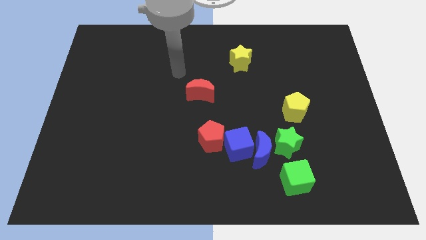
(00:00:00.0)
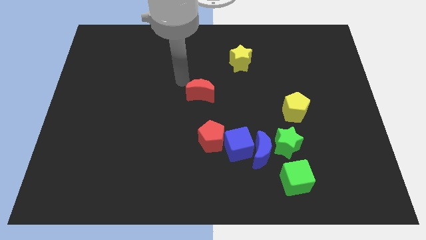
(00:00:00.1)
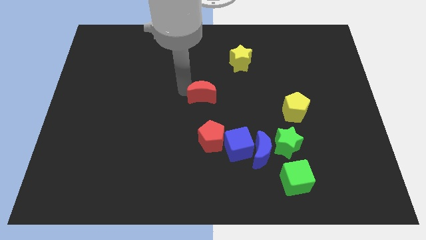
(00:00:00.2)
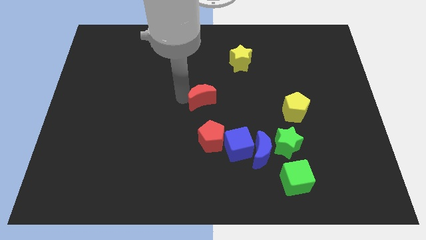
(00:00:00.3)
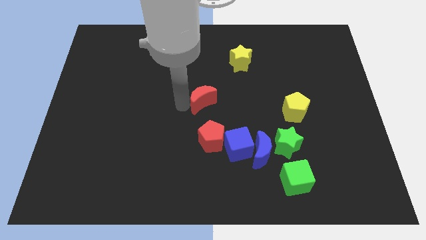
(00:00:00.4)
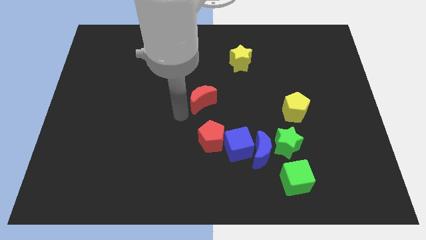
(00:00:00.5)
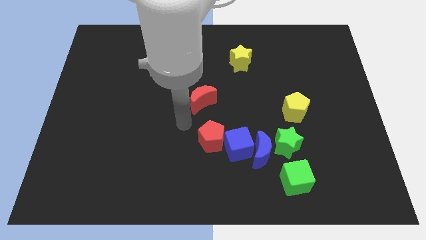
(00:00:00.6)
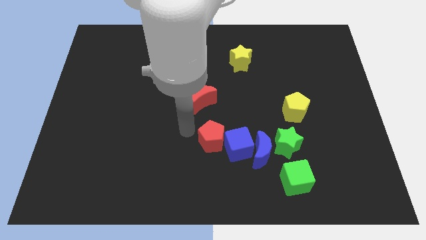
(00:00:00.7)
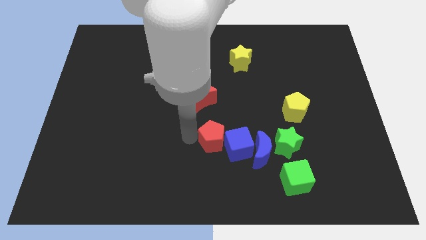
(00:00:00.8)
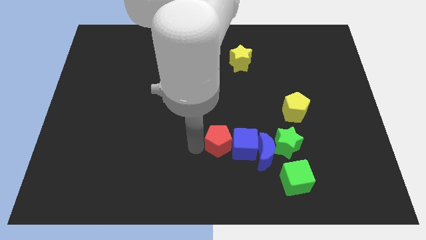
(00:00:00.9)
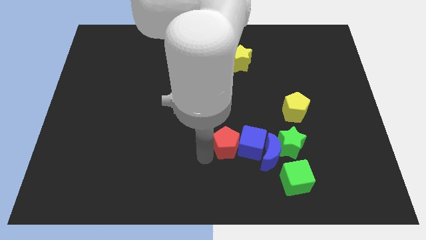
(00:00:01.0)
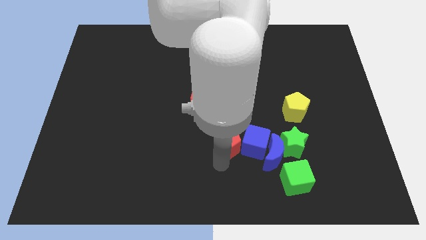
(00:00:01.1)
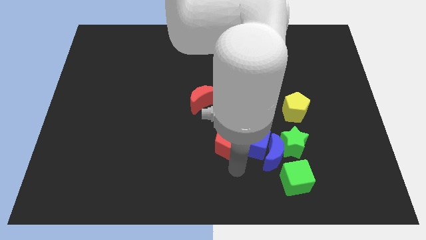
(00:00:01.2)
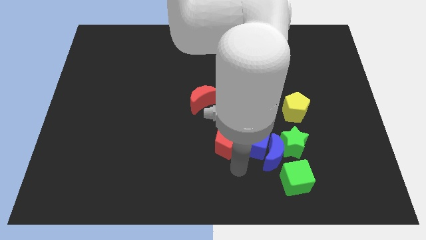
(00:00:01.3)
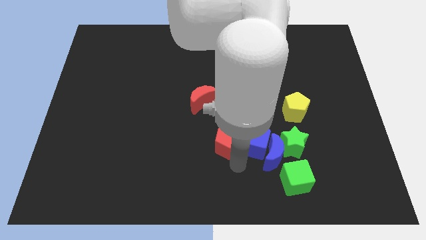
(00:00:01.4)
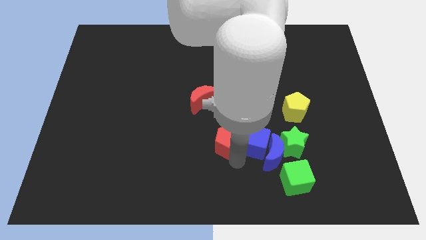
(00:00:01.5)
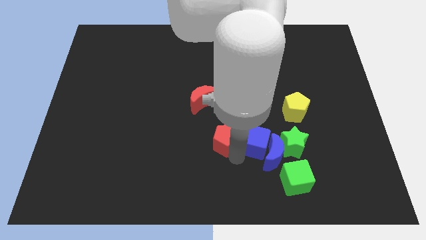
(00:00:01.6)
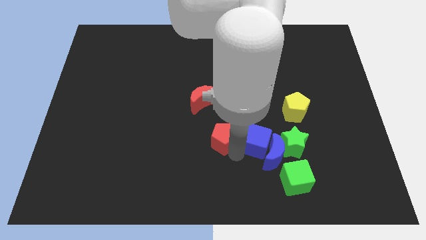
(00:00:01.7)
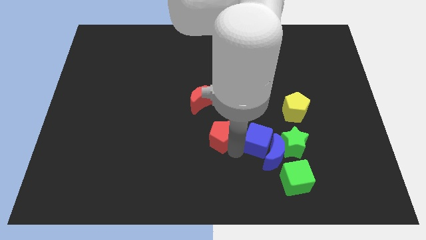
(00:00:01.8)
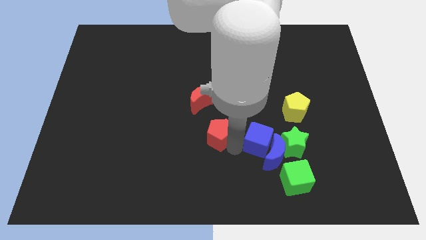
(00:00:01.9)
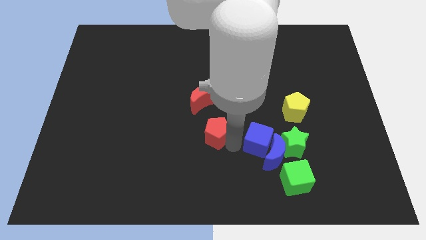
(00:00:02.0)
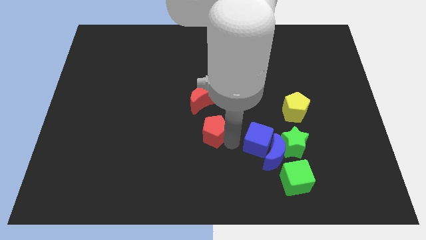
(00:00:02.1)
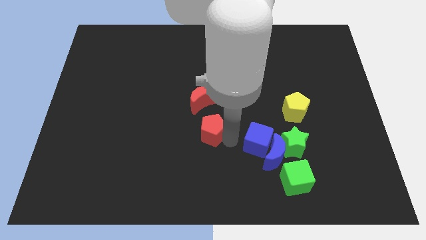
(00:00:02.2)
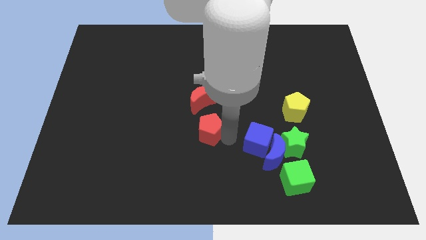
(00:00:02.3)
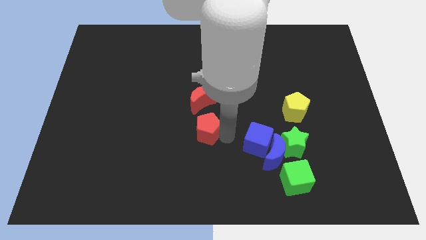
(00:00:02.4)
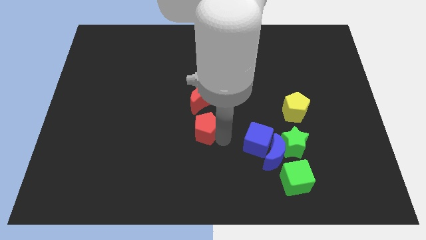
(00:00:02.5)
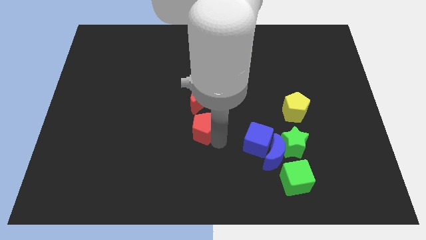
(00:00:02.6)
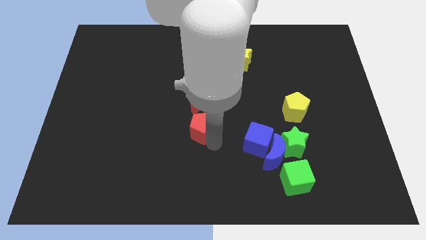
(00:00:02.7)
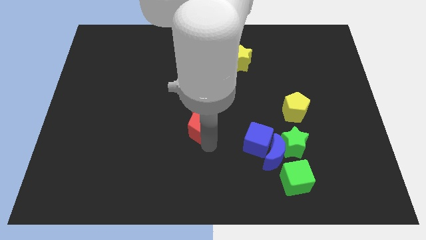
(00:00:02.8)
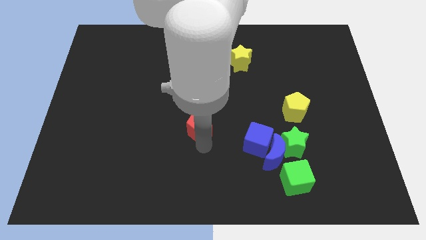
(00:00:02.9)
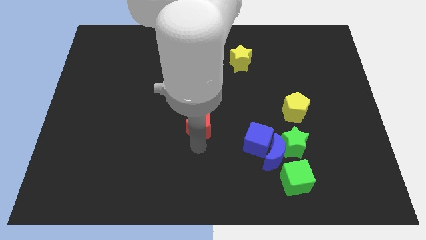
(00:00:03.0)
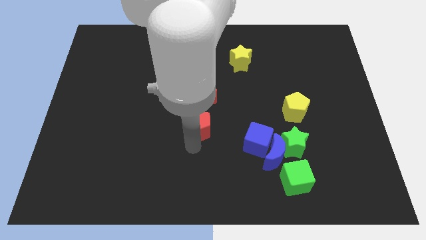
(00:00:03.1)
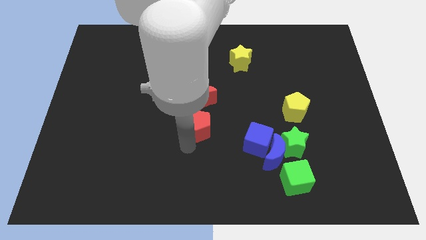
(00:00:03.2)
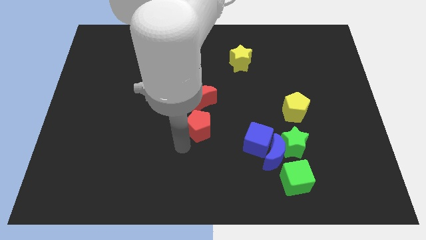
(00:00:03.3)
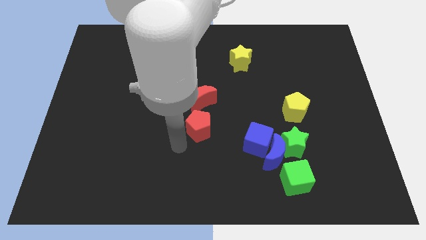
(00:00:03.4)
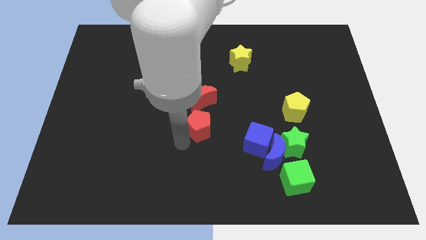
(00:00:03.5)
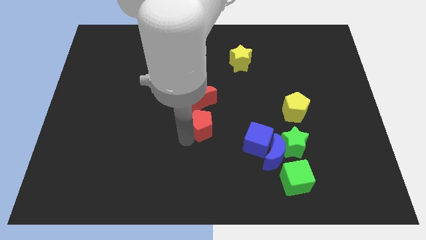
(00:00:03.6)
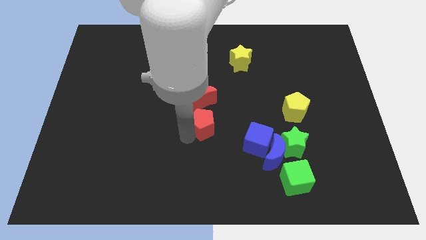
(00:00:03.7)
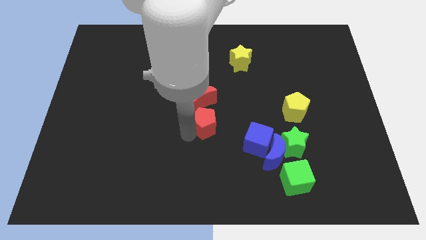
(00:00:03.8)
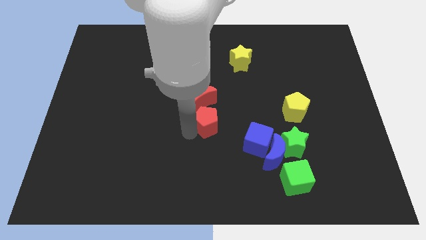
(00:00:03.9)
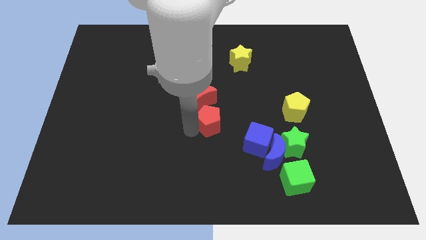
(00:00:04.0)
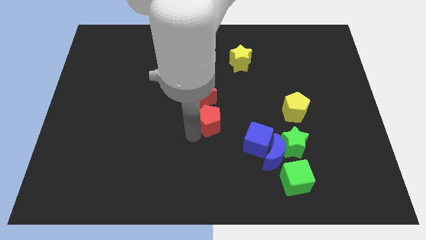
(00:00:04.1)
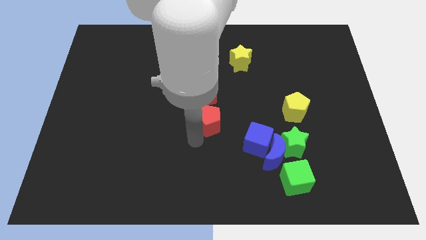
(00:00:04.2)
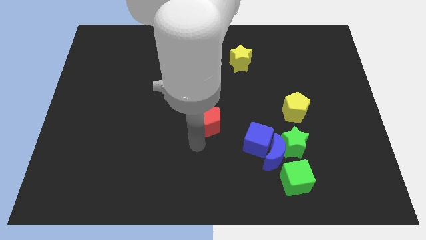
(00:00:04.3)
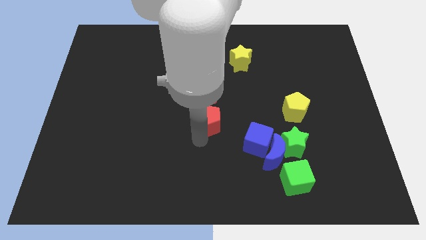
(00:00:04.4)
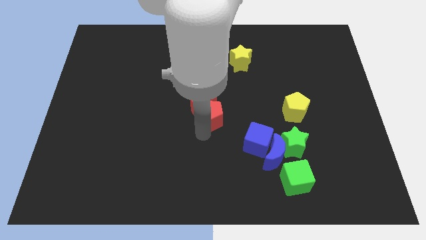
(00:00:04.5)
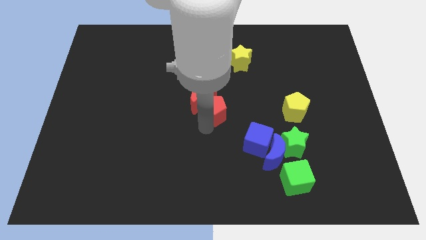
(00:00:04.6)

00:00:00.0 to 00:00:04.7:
slightly move the red pentagon upwards

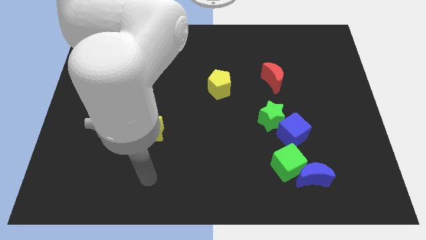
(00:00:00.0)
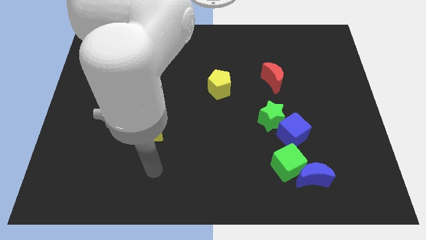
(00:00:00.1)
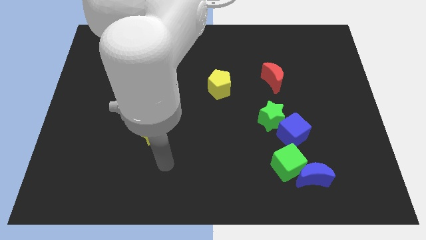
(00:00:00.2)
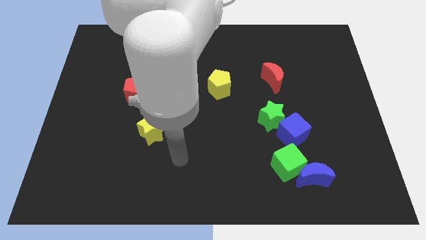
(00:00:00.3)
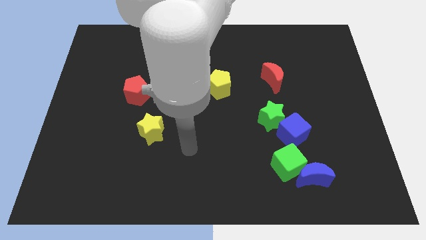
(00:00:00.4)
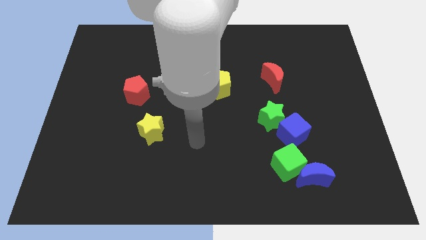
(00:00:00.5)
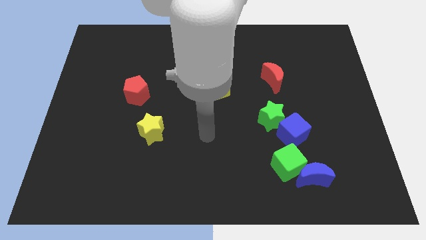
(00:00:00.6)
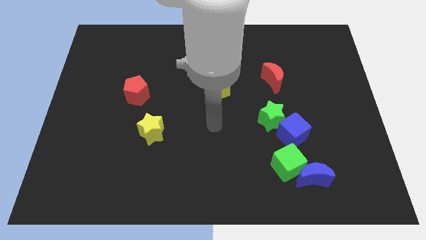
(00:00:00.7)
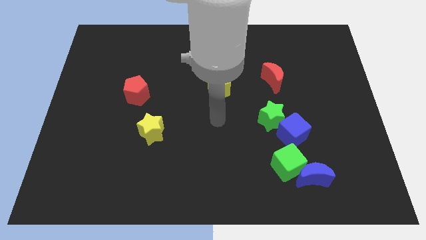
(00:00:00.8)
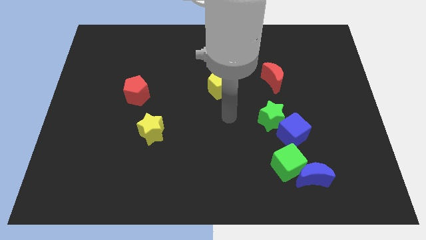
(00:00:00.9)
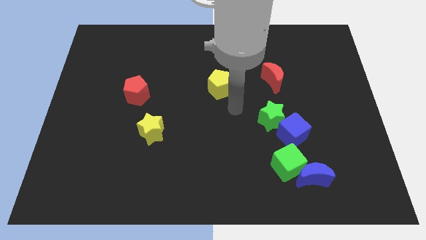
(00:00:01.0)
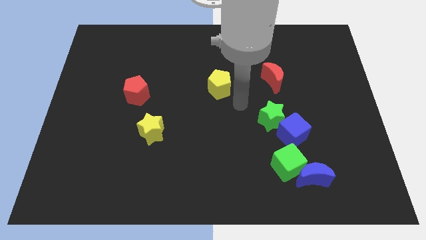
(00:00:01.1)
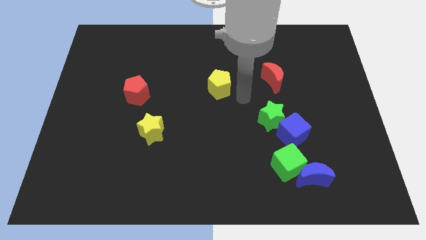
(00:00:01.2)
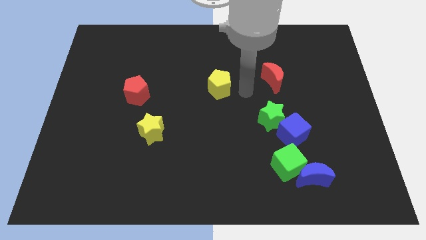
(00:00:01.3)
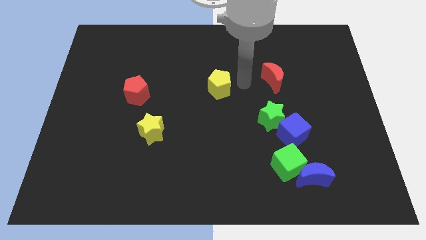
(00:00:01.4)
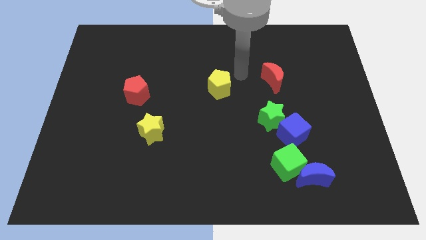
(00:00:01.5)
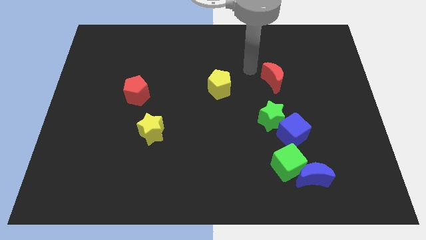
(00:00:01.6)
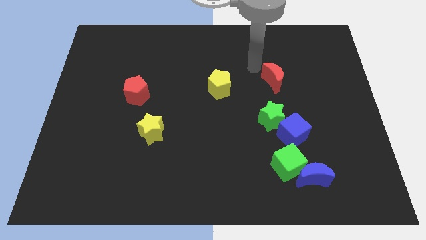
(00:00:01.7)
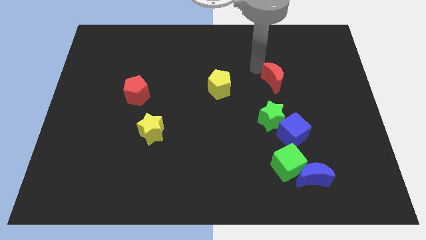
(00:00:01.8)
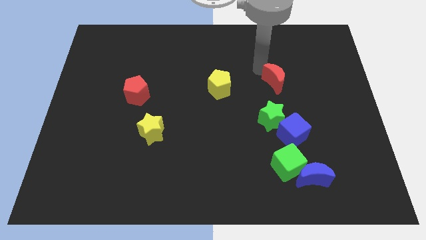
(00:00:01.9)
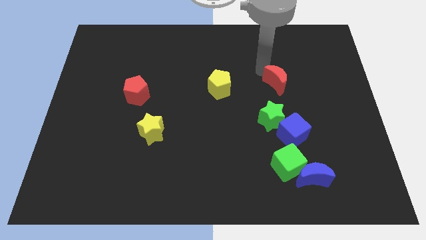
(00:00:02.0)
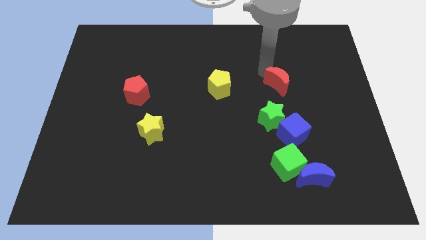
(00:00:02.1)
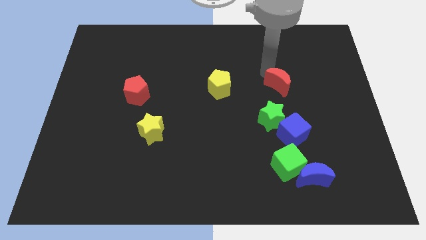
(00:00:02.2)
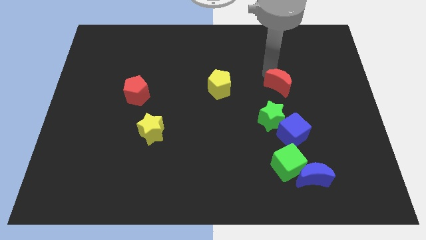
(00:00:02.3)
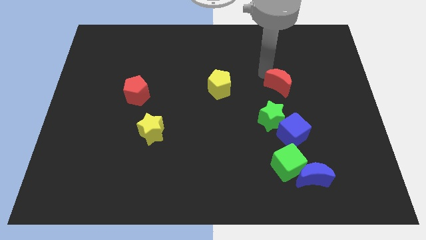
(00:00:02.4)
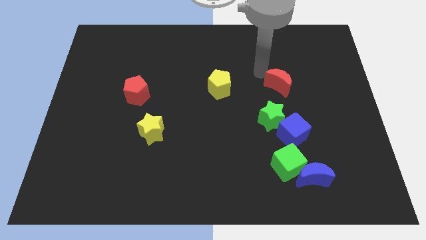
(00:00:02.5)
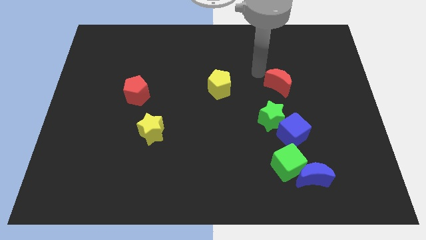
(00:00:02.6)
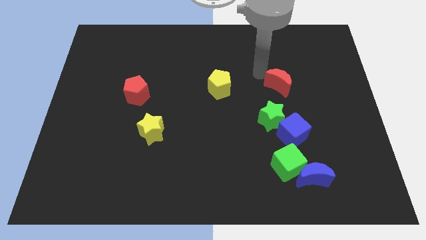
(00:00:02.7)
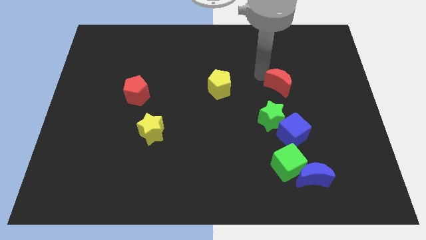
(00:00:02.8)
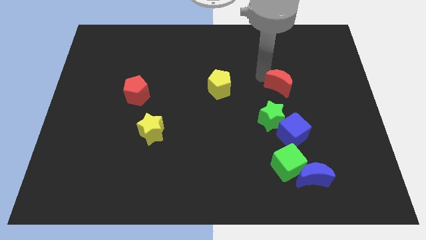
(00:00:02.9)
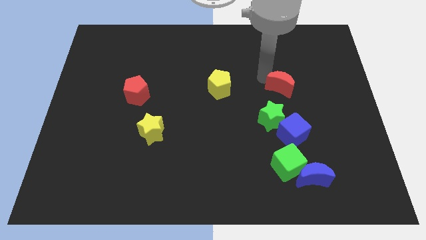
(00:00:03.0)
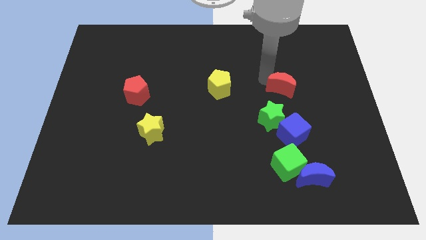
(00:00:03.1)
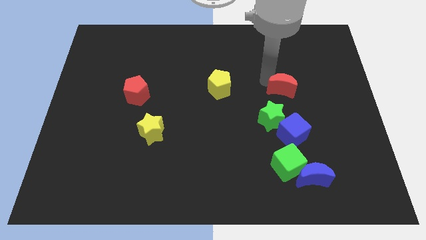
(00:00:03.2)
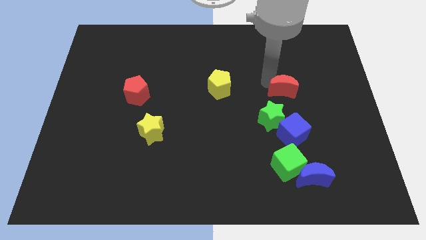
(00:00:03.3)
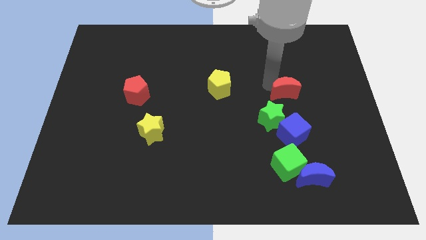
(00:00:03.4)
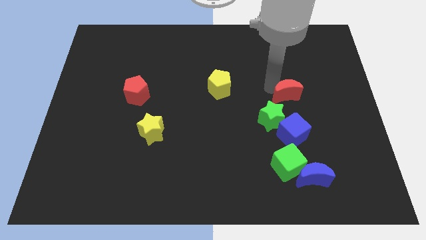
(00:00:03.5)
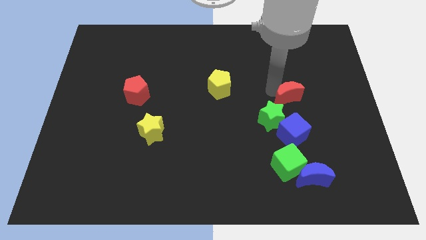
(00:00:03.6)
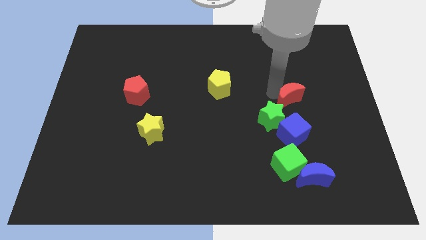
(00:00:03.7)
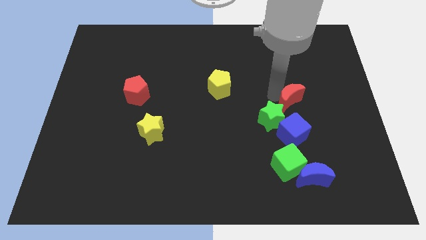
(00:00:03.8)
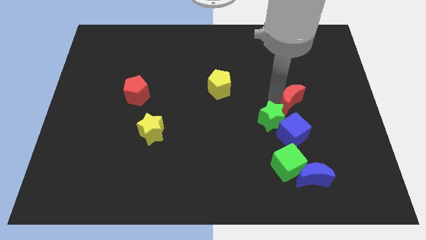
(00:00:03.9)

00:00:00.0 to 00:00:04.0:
slightly push the red moon downwards and to the right
